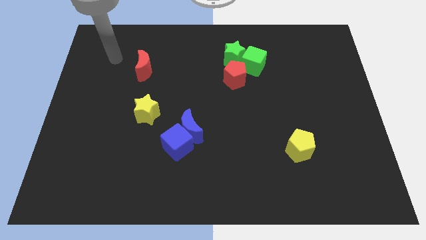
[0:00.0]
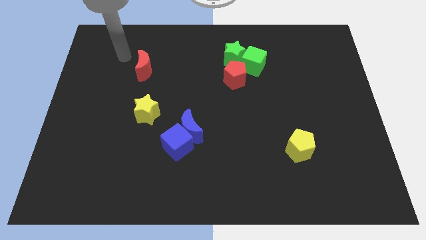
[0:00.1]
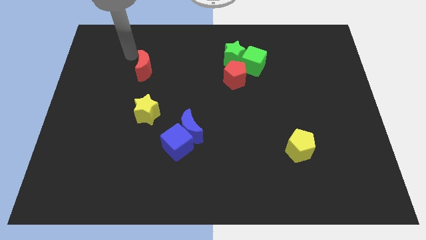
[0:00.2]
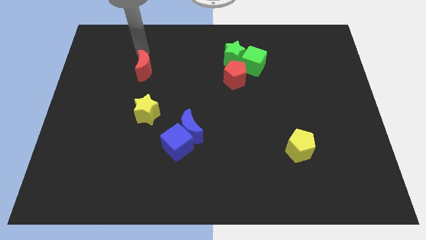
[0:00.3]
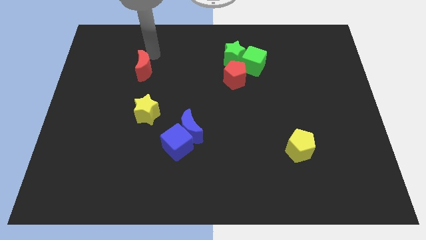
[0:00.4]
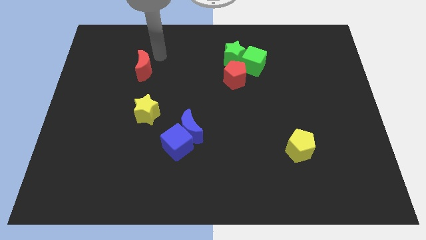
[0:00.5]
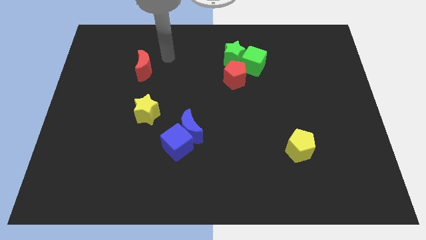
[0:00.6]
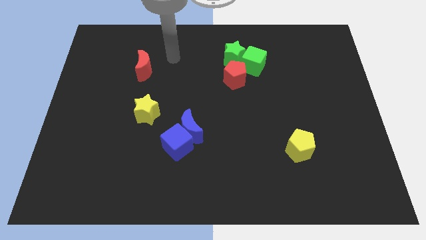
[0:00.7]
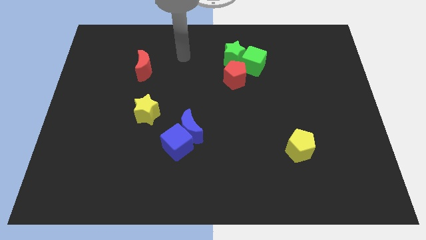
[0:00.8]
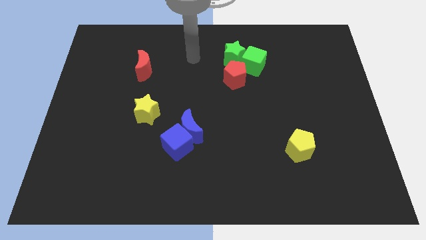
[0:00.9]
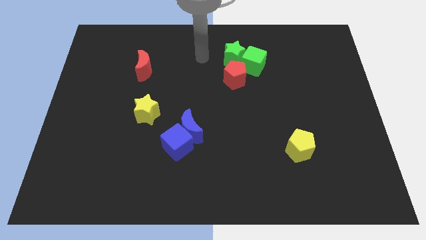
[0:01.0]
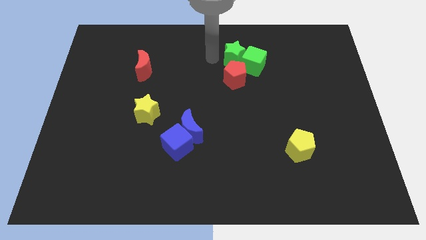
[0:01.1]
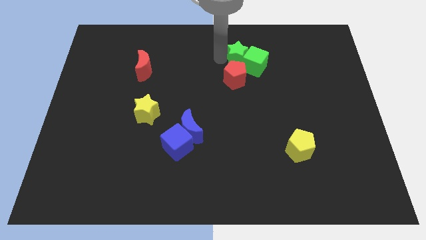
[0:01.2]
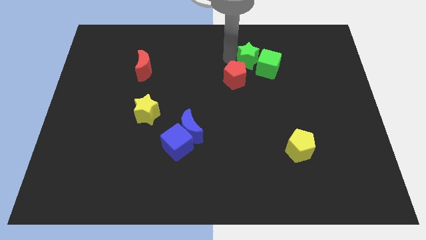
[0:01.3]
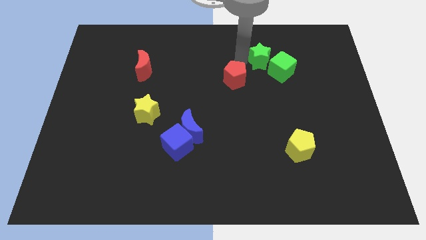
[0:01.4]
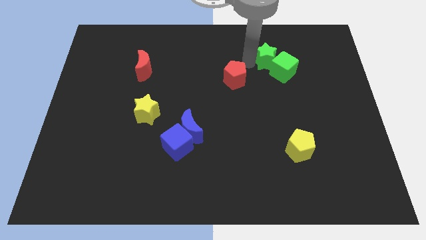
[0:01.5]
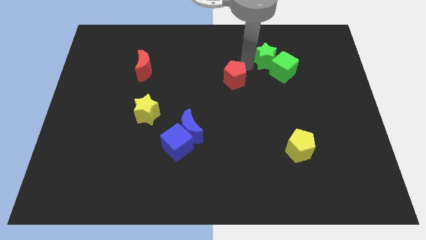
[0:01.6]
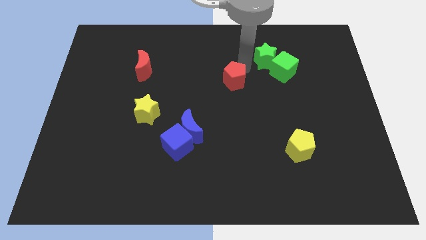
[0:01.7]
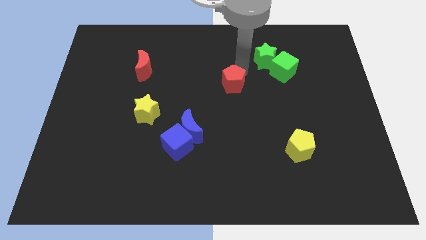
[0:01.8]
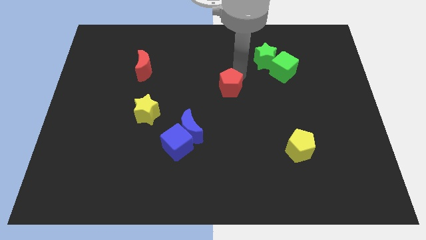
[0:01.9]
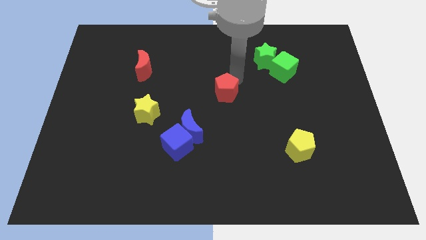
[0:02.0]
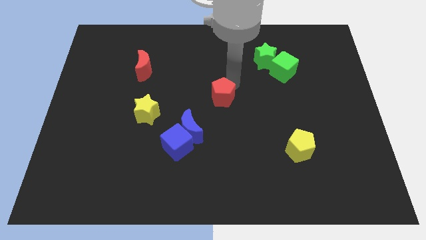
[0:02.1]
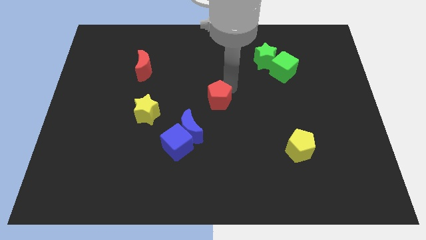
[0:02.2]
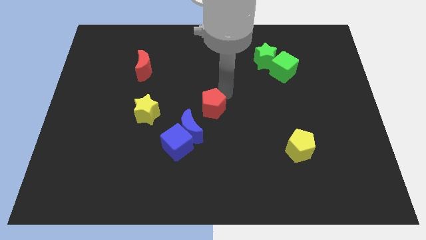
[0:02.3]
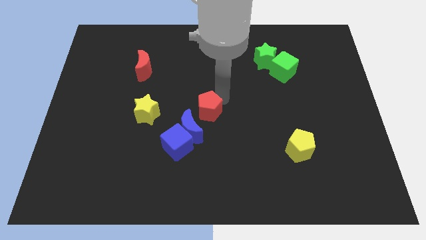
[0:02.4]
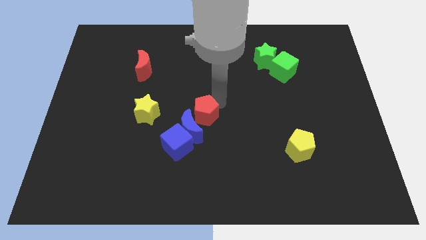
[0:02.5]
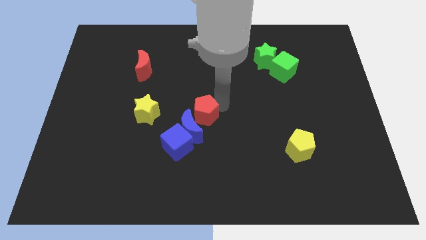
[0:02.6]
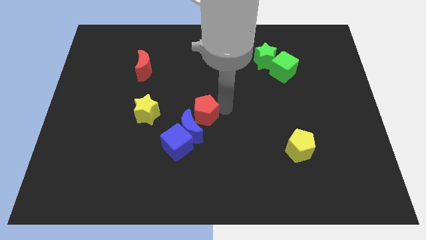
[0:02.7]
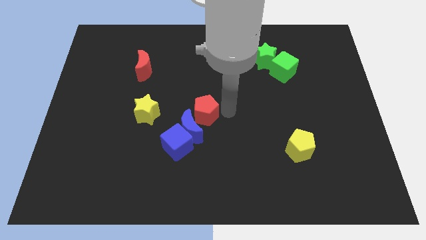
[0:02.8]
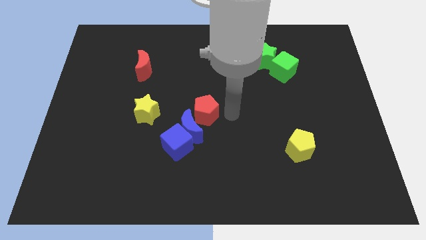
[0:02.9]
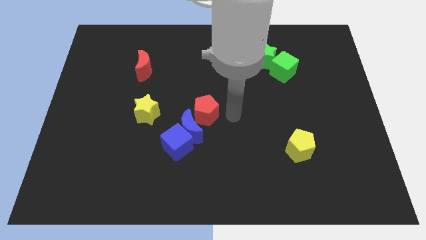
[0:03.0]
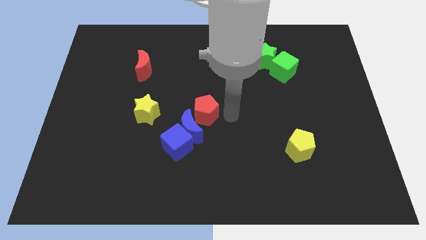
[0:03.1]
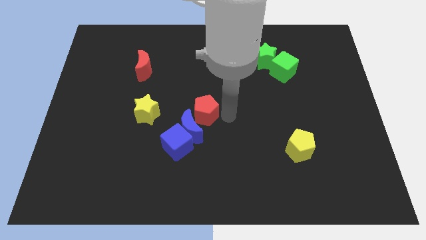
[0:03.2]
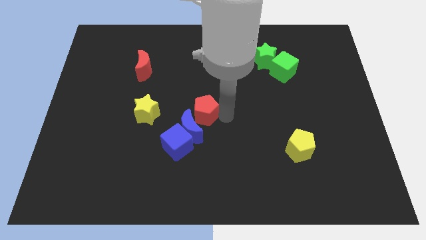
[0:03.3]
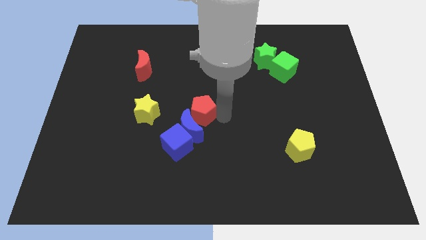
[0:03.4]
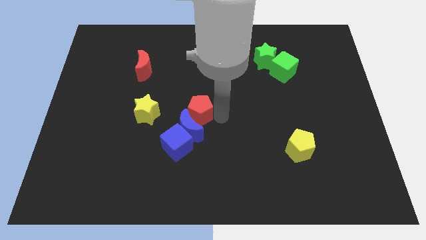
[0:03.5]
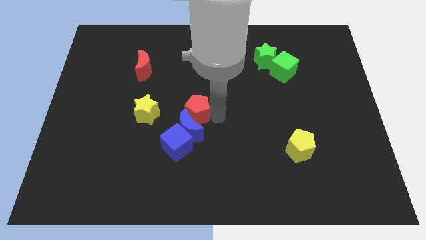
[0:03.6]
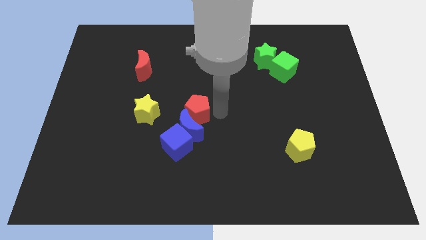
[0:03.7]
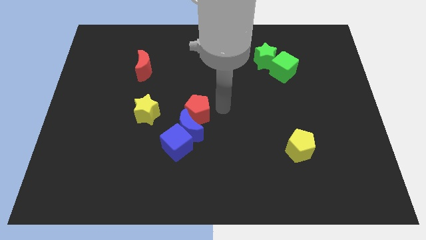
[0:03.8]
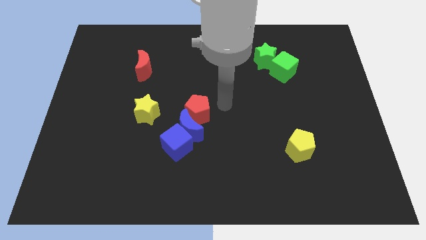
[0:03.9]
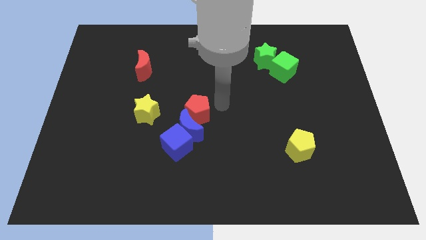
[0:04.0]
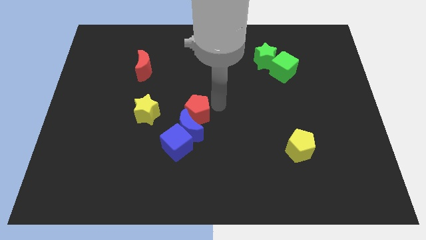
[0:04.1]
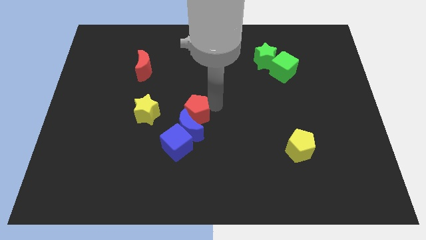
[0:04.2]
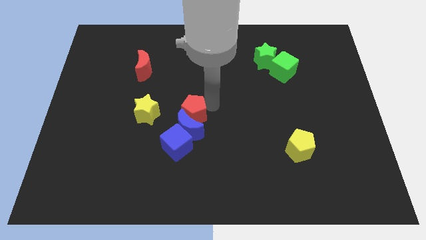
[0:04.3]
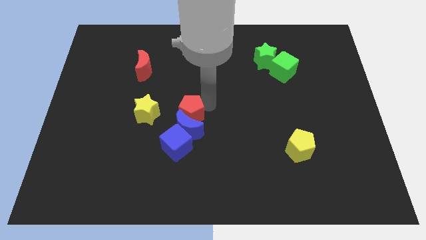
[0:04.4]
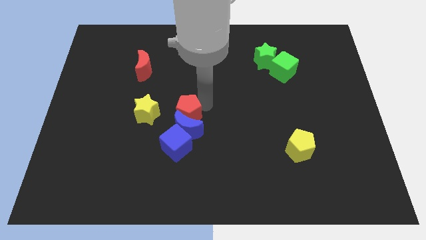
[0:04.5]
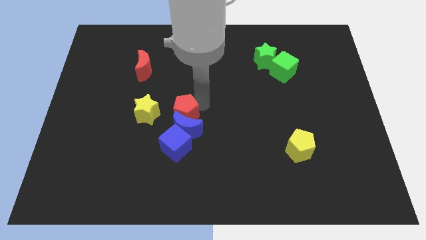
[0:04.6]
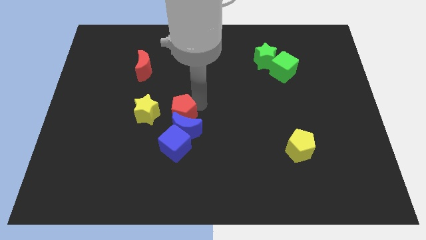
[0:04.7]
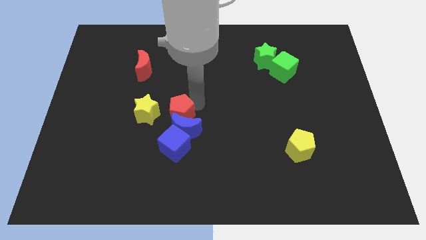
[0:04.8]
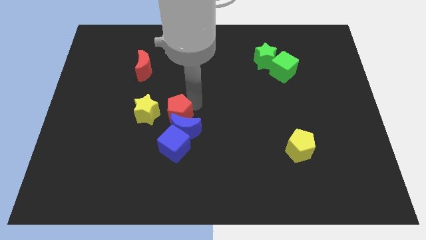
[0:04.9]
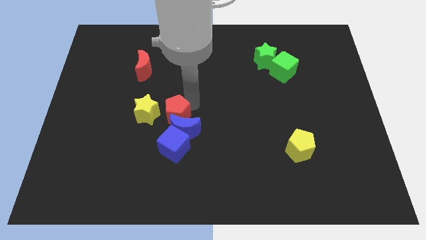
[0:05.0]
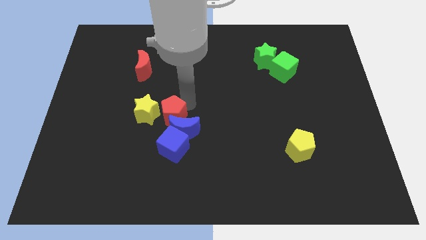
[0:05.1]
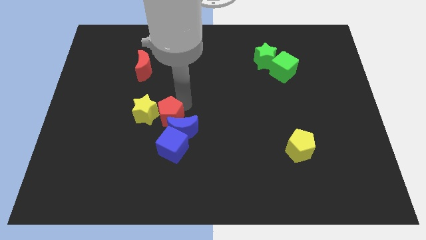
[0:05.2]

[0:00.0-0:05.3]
put the red pentagon to the left of the blue moon

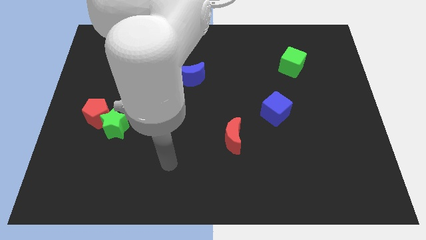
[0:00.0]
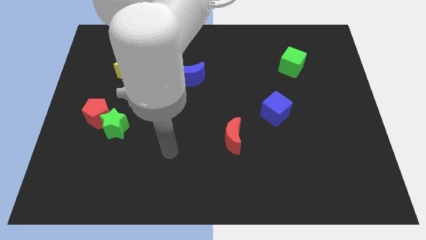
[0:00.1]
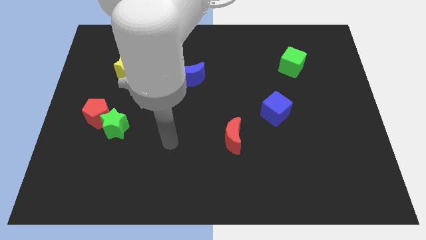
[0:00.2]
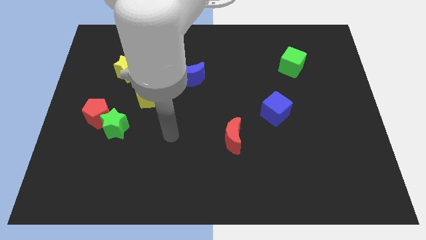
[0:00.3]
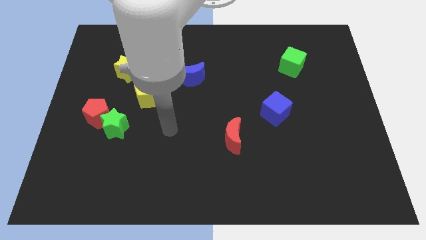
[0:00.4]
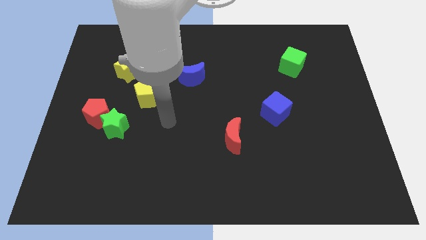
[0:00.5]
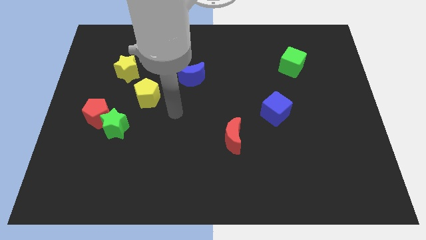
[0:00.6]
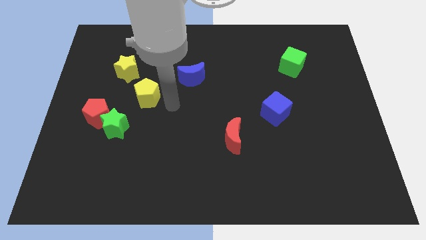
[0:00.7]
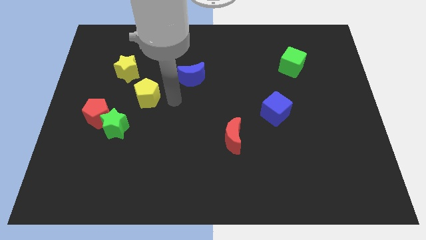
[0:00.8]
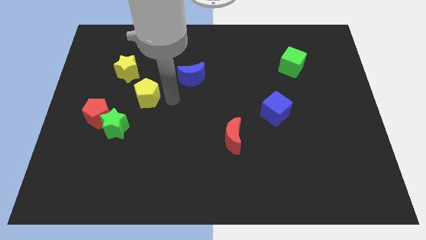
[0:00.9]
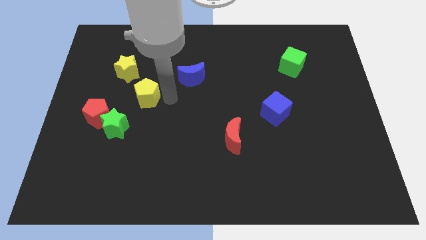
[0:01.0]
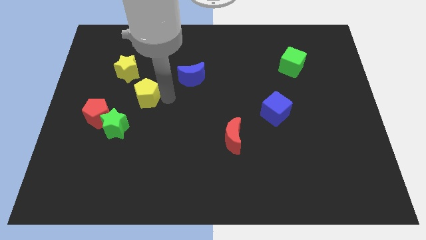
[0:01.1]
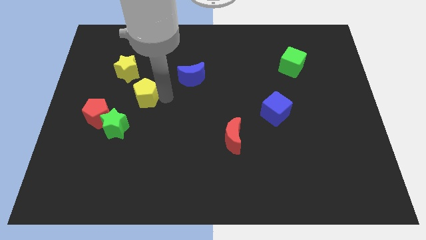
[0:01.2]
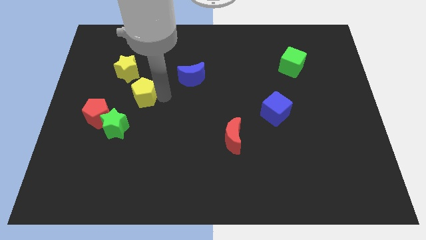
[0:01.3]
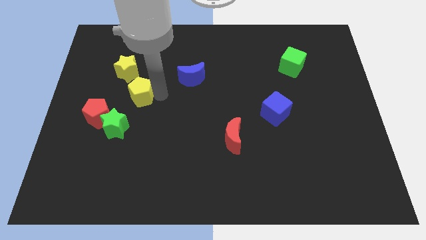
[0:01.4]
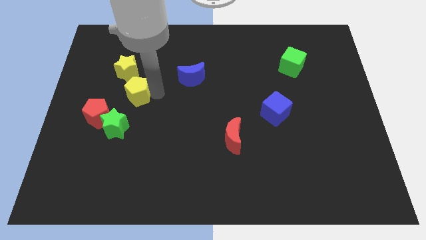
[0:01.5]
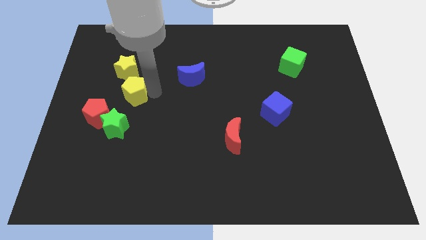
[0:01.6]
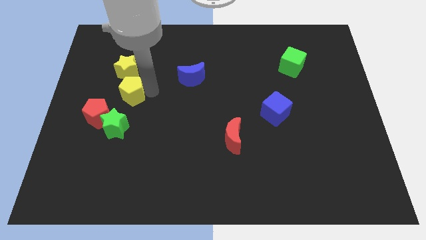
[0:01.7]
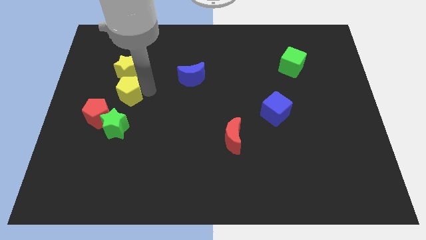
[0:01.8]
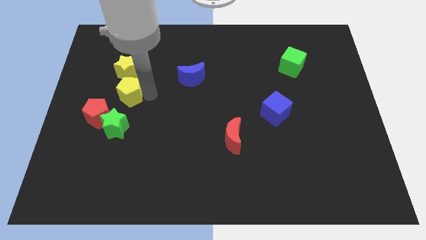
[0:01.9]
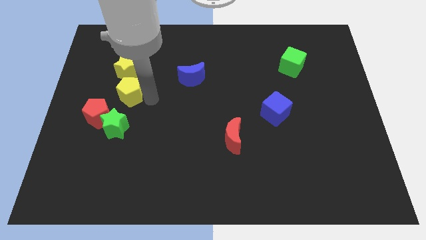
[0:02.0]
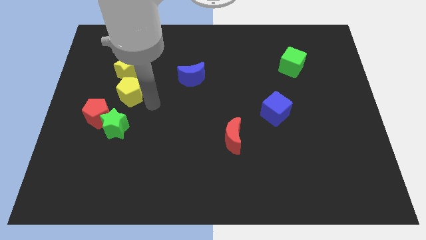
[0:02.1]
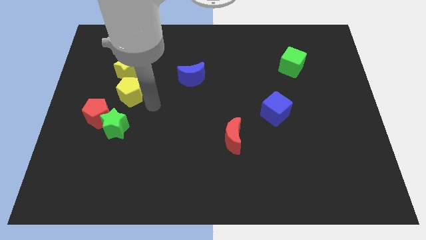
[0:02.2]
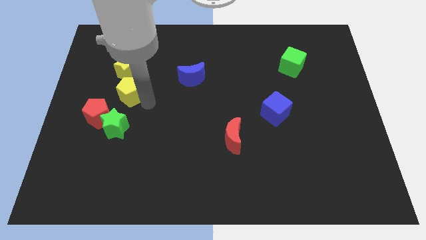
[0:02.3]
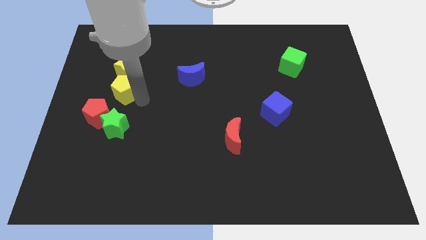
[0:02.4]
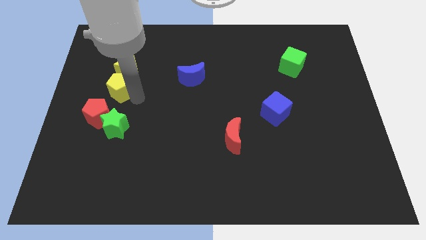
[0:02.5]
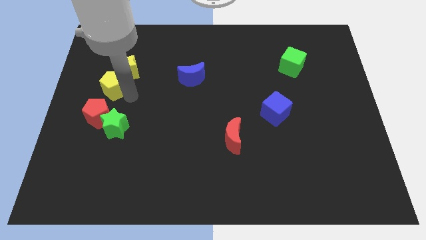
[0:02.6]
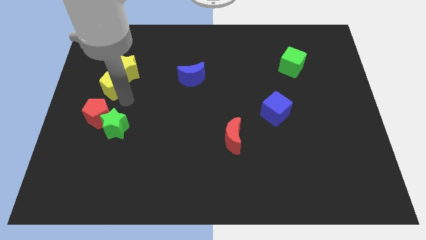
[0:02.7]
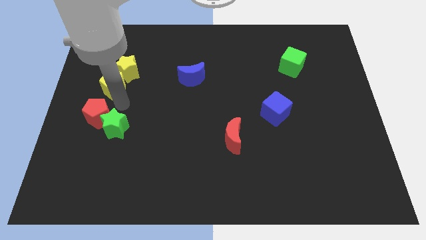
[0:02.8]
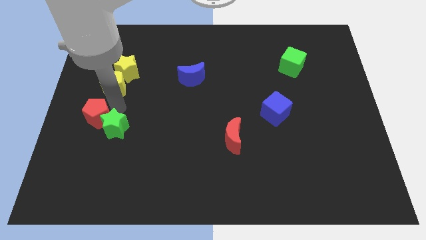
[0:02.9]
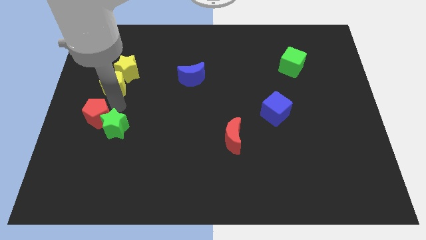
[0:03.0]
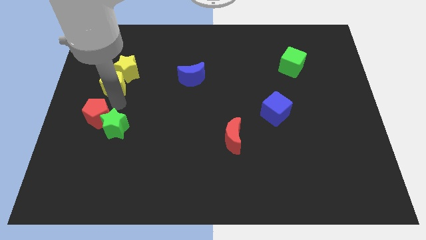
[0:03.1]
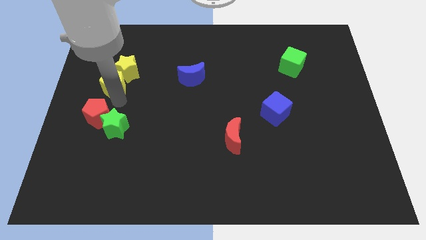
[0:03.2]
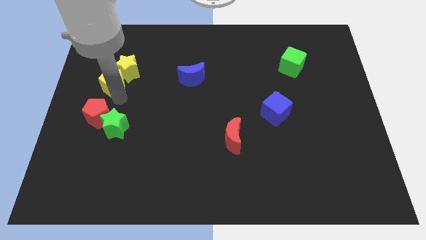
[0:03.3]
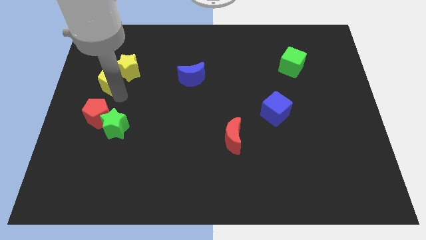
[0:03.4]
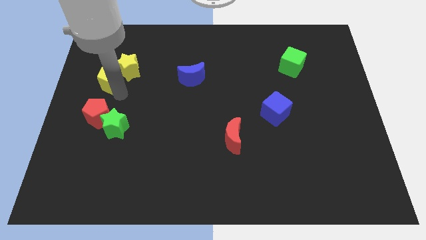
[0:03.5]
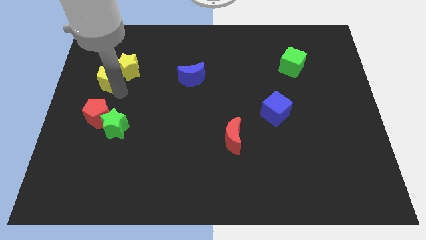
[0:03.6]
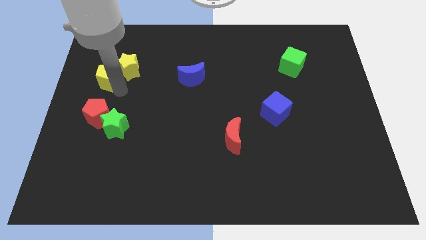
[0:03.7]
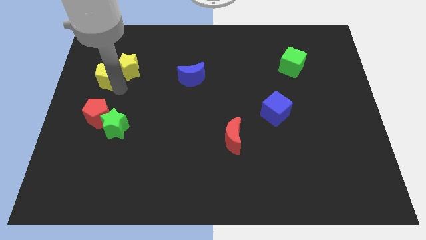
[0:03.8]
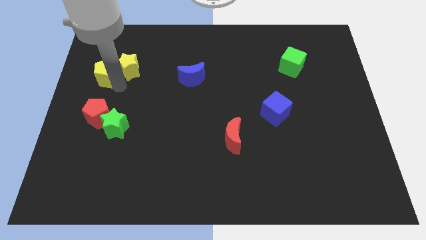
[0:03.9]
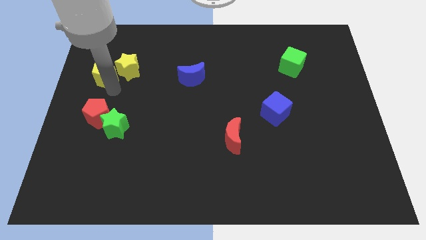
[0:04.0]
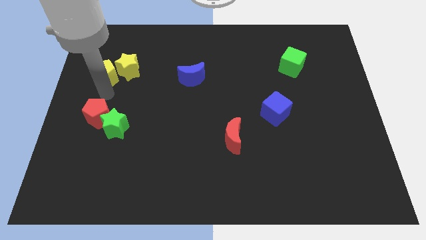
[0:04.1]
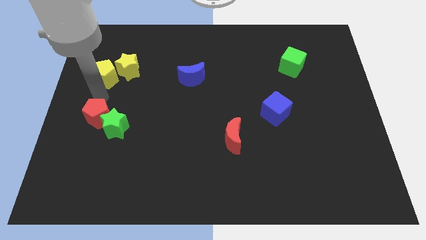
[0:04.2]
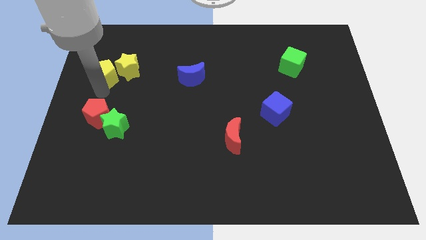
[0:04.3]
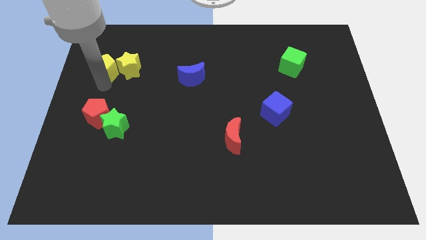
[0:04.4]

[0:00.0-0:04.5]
push the yellow pentagon to the top left side of the yellow star
